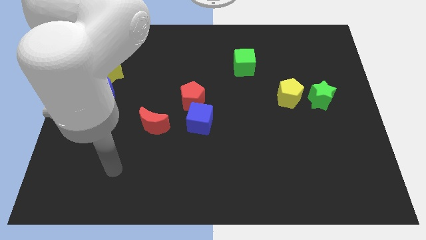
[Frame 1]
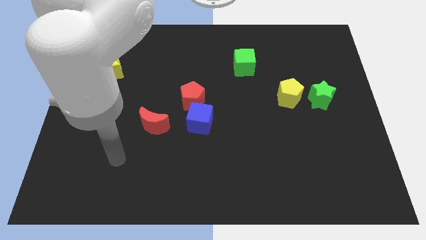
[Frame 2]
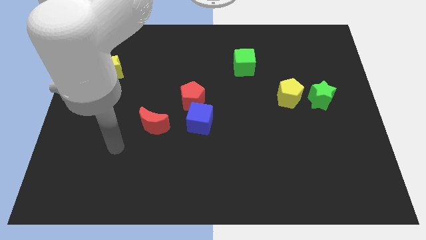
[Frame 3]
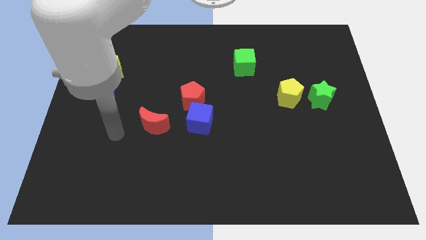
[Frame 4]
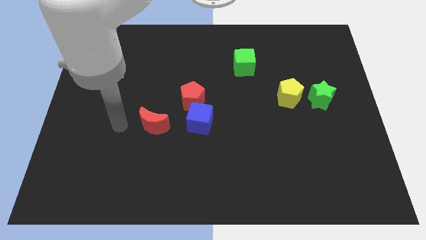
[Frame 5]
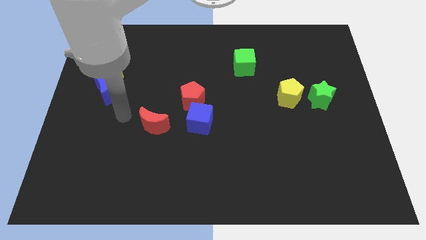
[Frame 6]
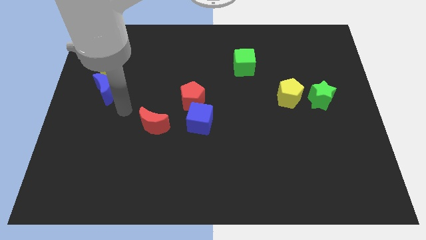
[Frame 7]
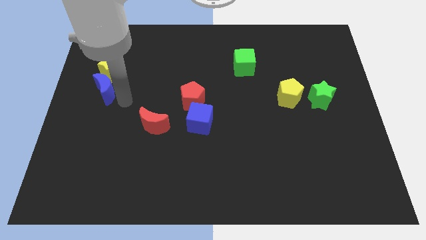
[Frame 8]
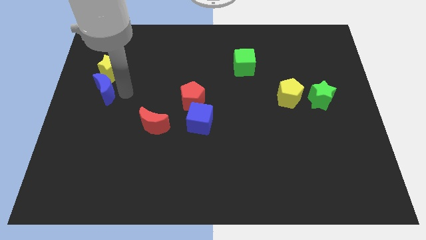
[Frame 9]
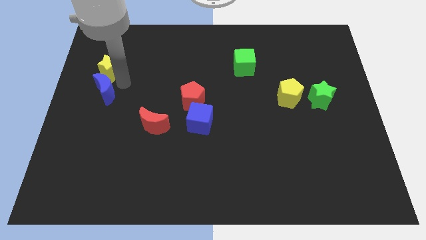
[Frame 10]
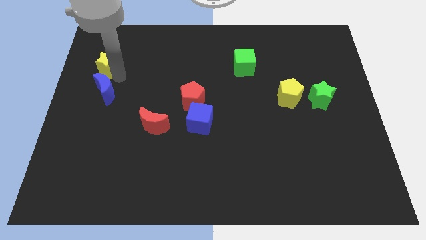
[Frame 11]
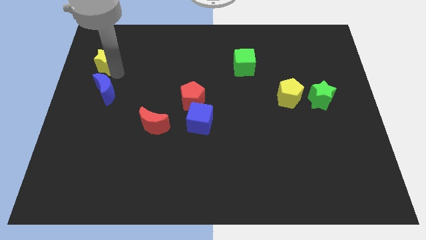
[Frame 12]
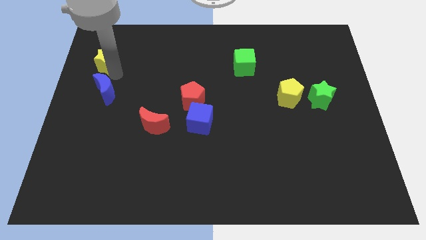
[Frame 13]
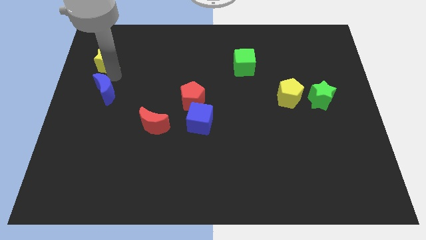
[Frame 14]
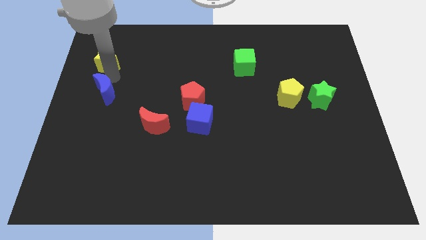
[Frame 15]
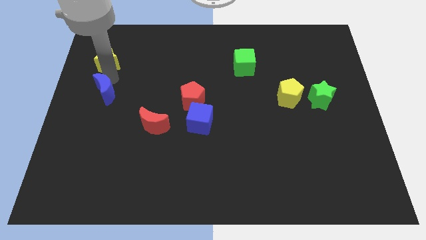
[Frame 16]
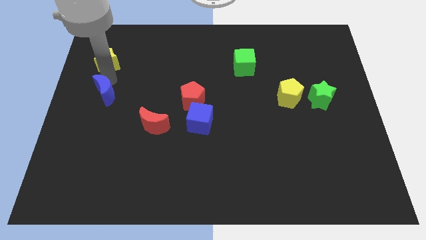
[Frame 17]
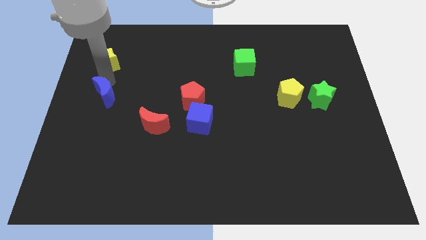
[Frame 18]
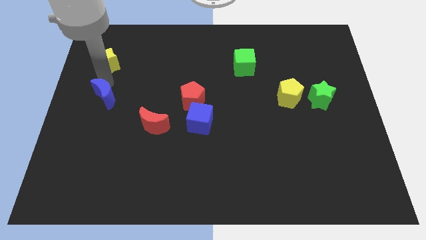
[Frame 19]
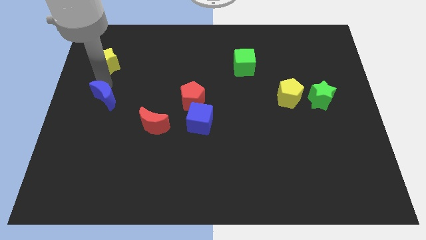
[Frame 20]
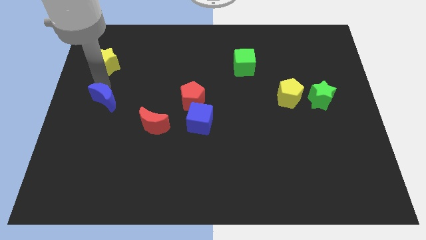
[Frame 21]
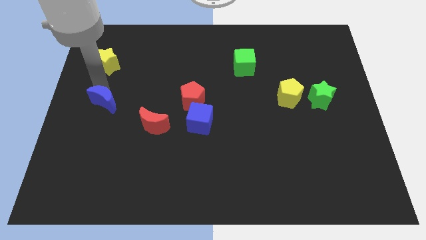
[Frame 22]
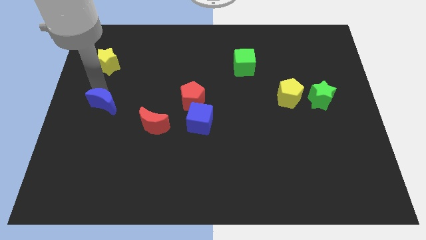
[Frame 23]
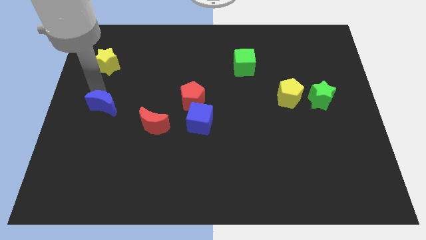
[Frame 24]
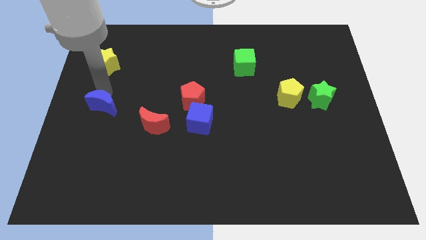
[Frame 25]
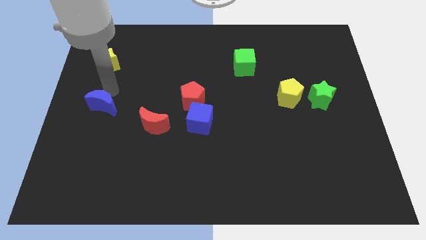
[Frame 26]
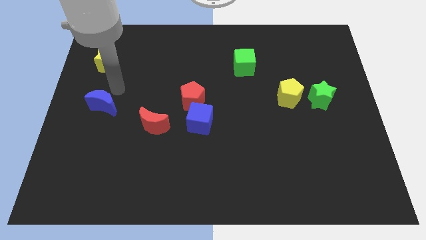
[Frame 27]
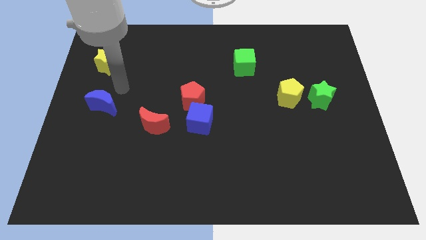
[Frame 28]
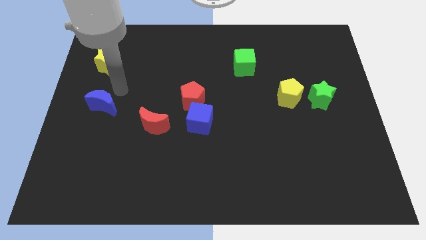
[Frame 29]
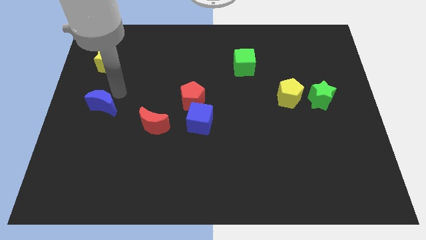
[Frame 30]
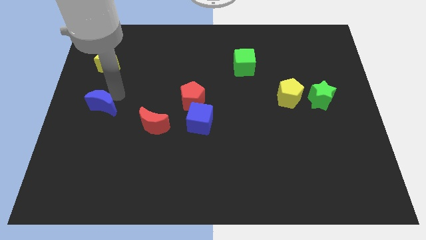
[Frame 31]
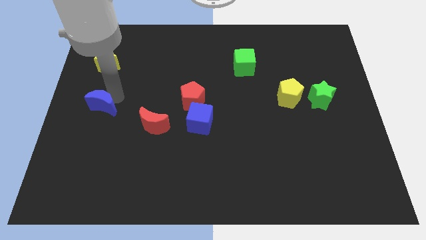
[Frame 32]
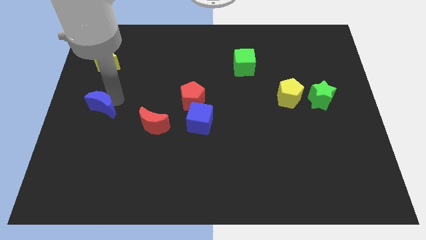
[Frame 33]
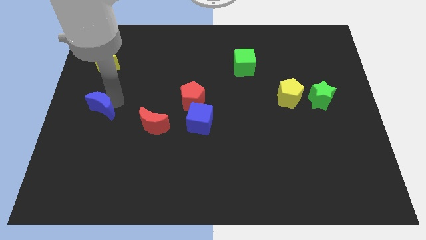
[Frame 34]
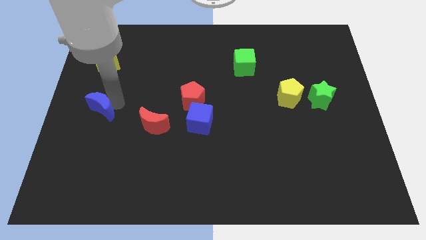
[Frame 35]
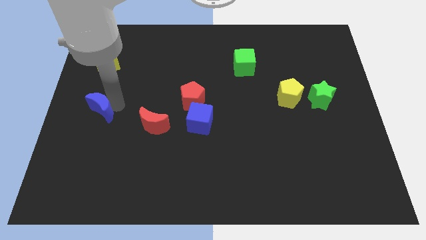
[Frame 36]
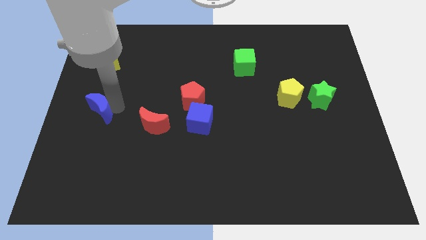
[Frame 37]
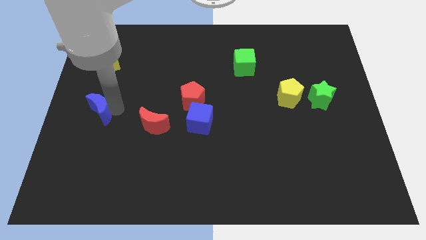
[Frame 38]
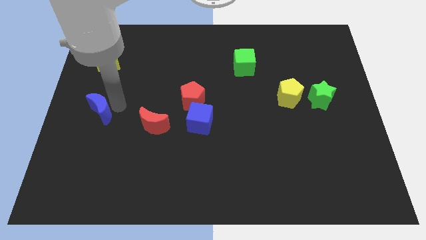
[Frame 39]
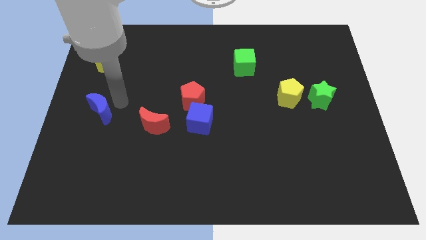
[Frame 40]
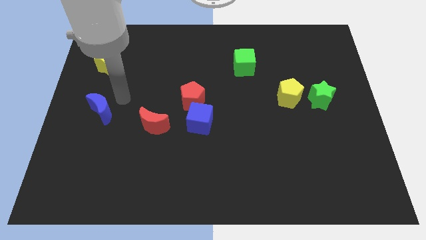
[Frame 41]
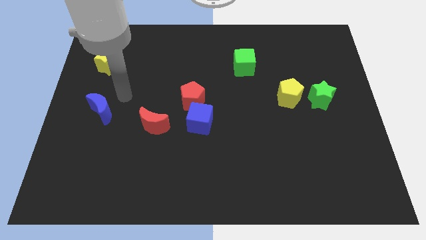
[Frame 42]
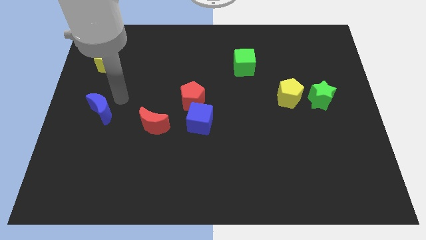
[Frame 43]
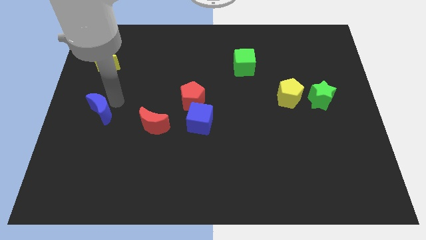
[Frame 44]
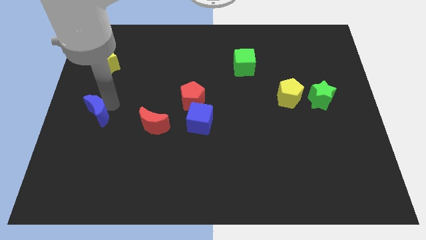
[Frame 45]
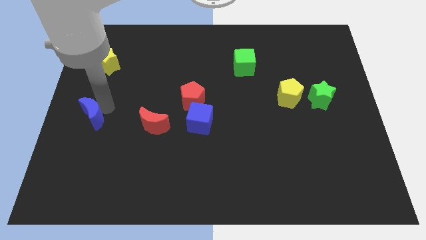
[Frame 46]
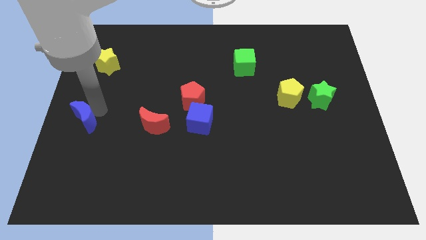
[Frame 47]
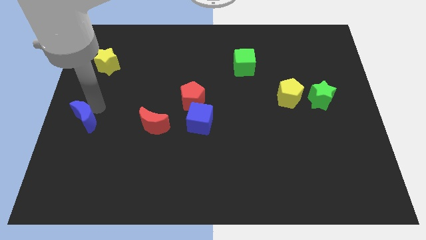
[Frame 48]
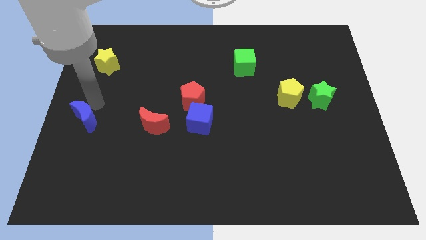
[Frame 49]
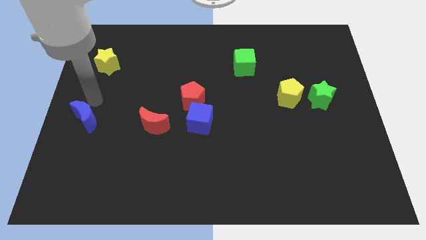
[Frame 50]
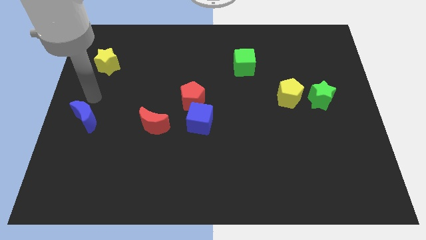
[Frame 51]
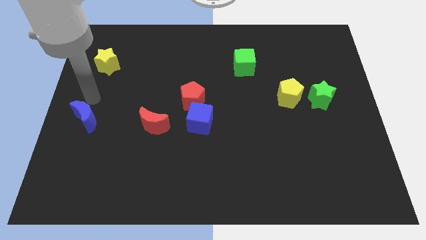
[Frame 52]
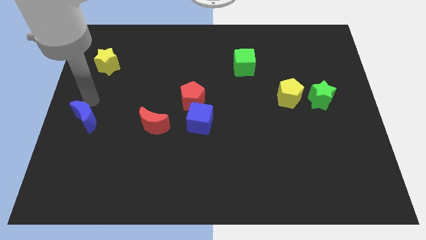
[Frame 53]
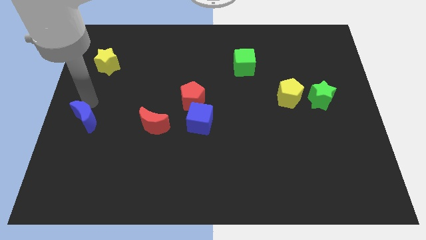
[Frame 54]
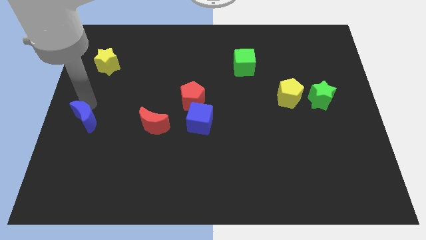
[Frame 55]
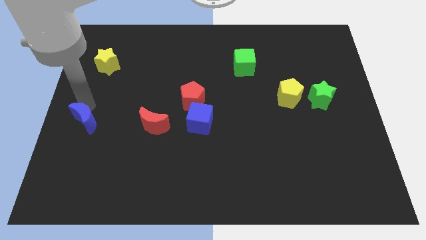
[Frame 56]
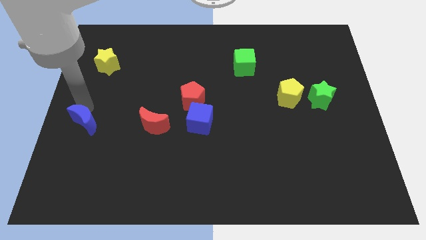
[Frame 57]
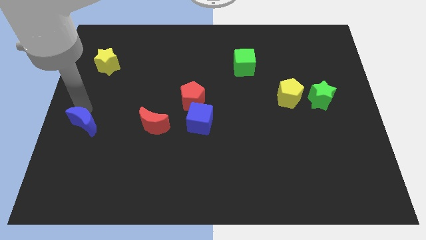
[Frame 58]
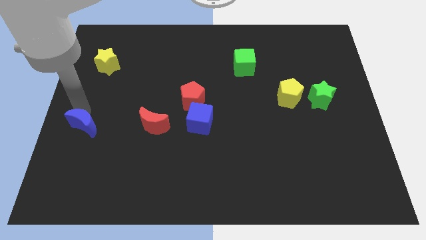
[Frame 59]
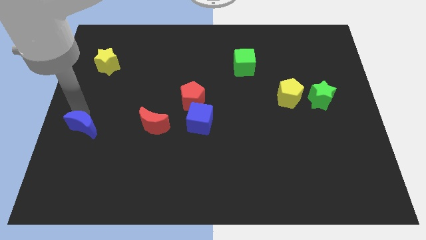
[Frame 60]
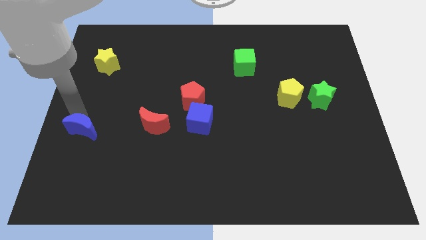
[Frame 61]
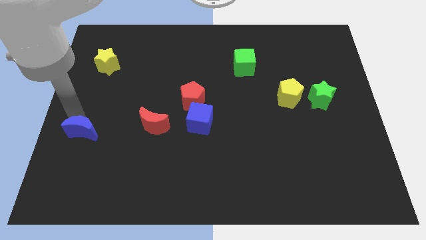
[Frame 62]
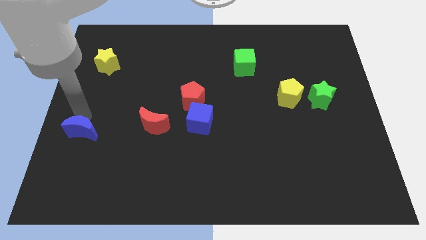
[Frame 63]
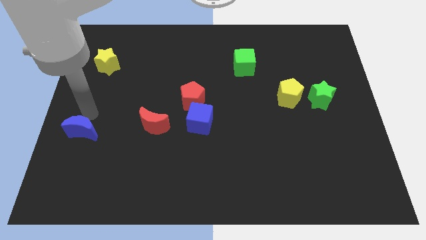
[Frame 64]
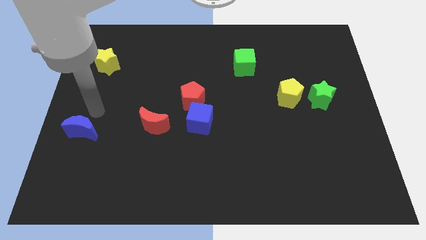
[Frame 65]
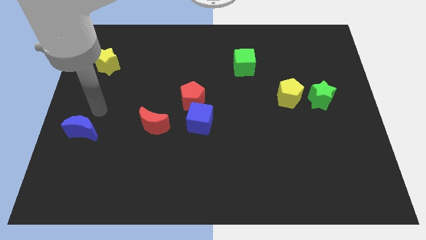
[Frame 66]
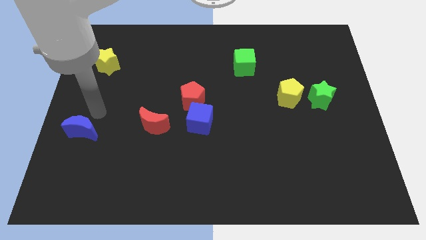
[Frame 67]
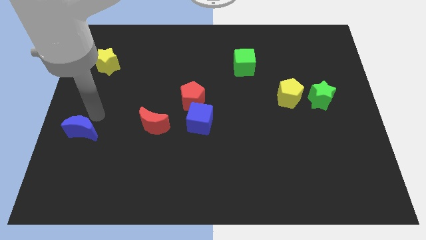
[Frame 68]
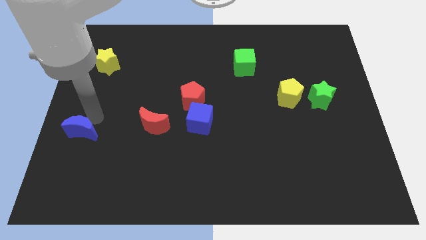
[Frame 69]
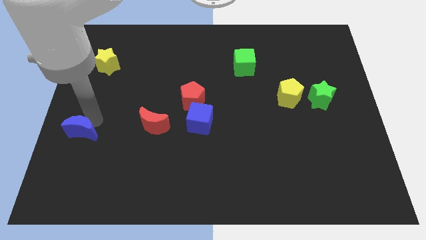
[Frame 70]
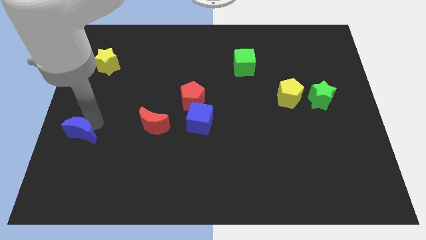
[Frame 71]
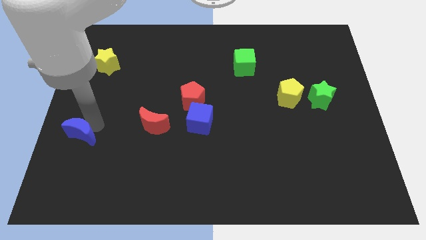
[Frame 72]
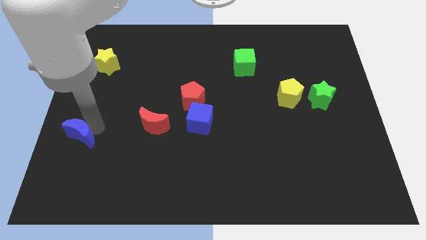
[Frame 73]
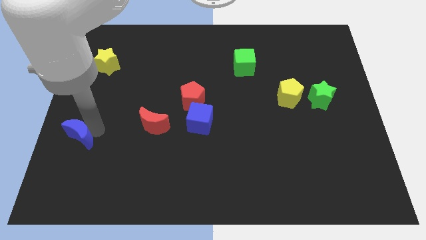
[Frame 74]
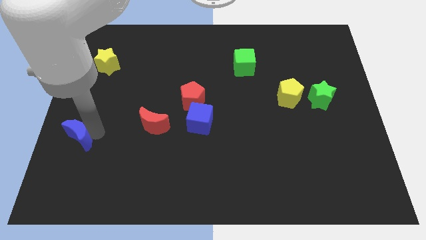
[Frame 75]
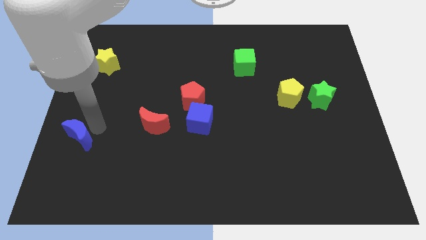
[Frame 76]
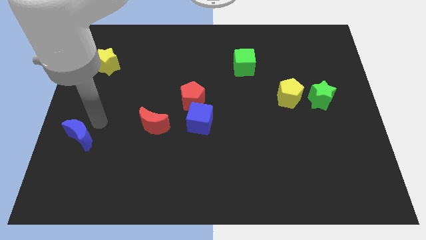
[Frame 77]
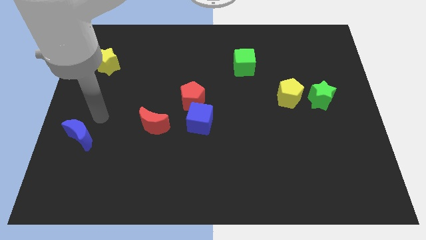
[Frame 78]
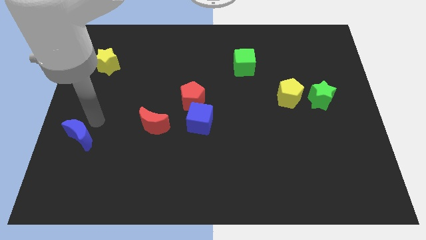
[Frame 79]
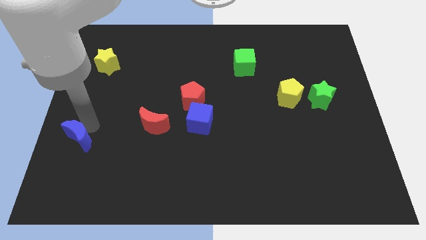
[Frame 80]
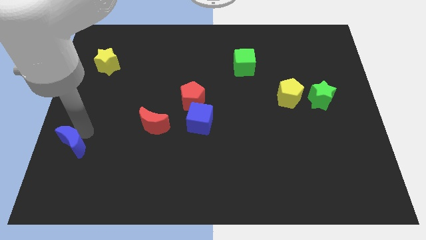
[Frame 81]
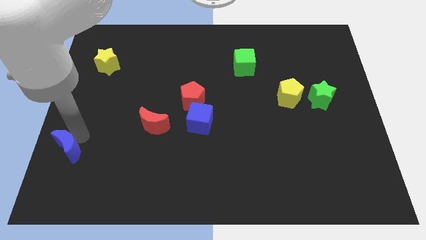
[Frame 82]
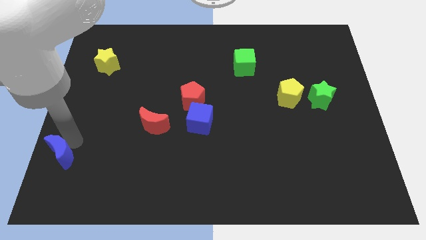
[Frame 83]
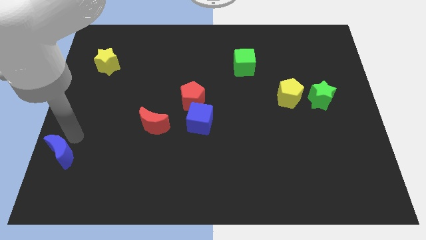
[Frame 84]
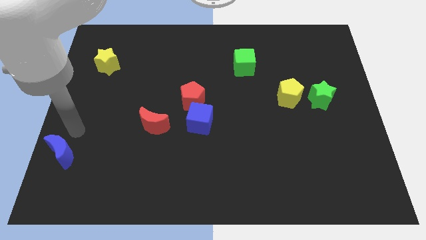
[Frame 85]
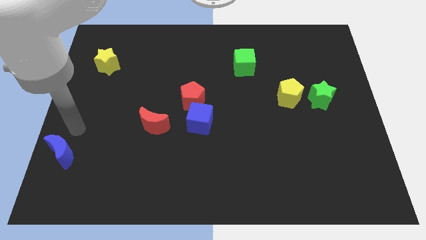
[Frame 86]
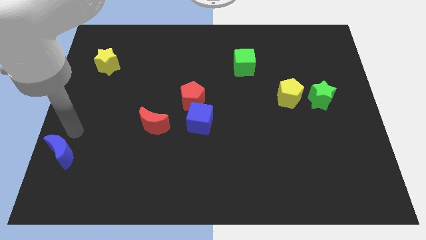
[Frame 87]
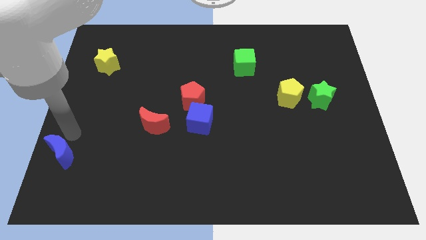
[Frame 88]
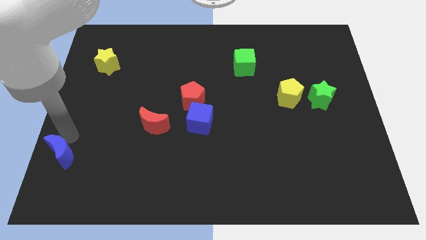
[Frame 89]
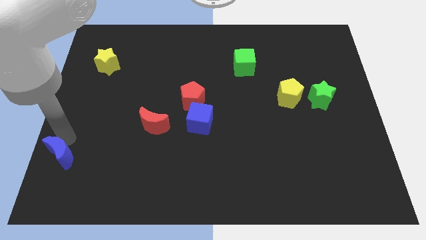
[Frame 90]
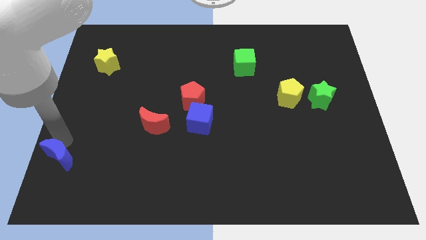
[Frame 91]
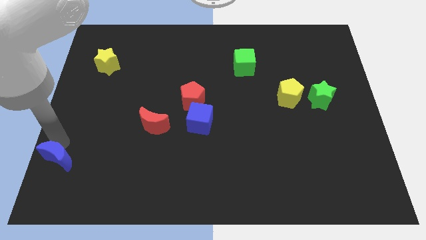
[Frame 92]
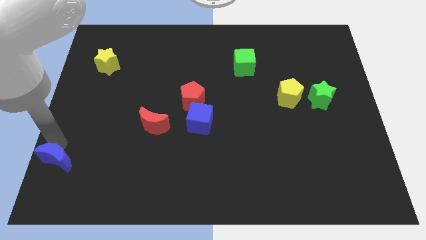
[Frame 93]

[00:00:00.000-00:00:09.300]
push the blue moon to the lower left corner
